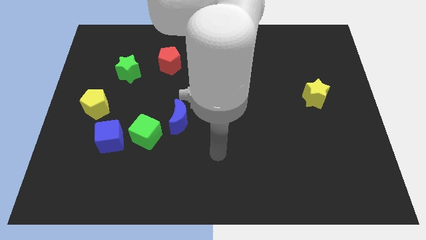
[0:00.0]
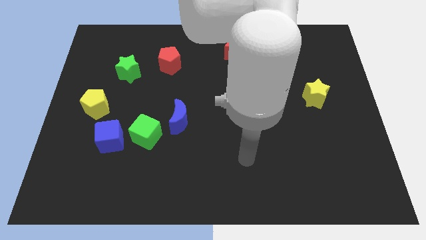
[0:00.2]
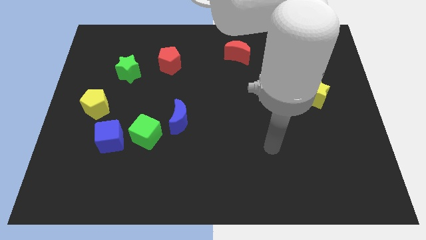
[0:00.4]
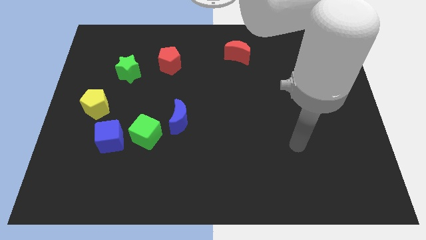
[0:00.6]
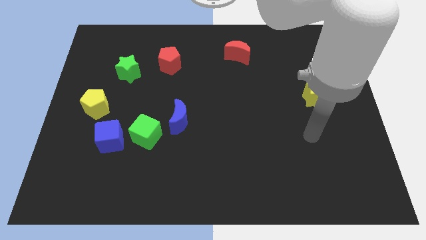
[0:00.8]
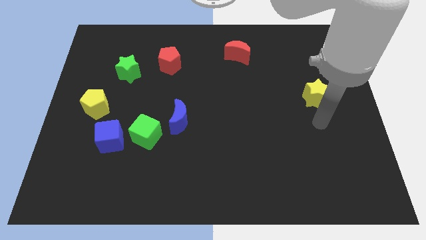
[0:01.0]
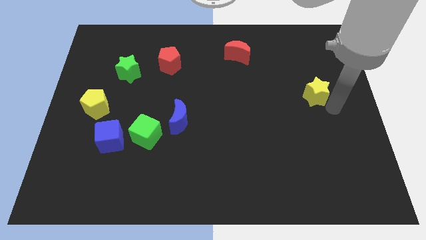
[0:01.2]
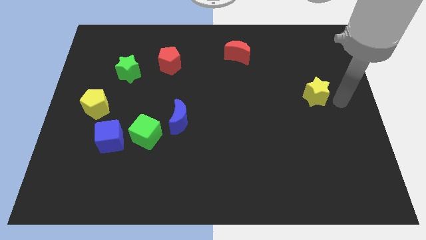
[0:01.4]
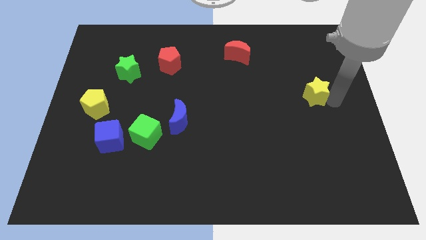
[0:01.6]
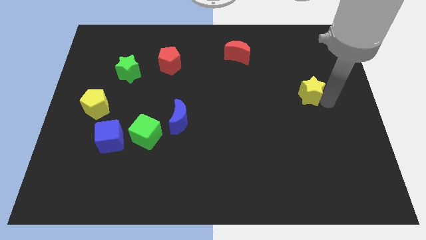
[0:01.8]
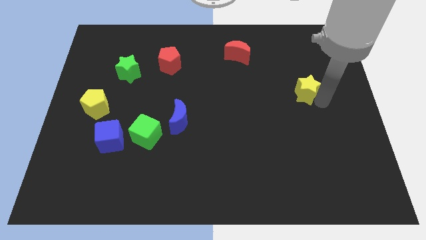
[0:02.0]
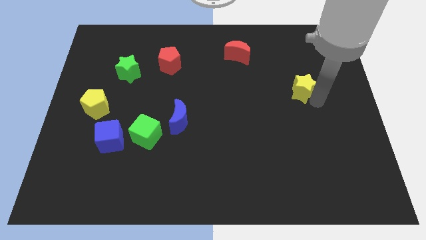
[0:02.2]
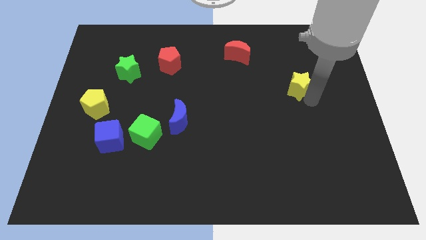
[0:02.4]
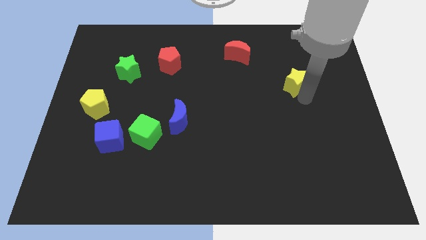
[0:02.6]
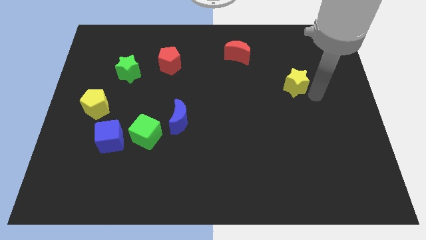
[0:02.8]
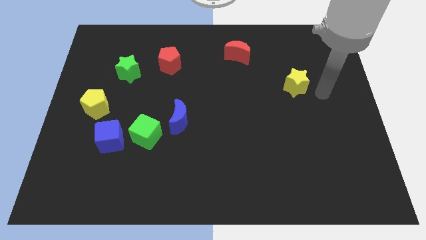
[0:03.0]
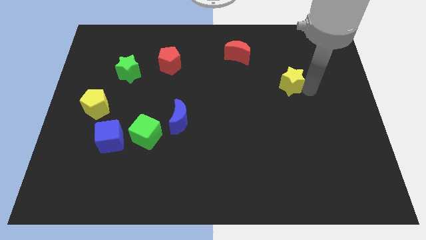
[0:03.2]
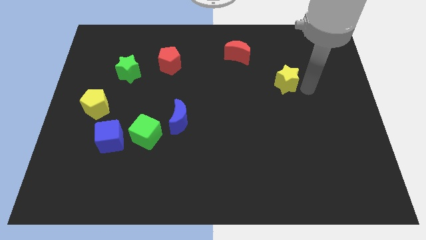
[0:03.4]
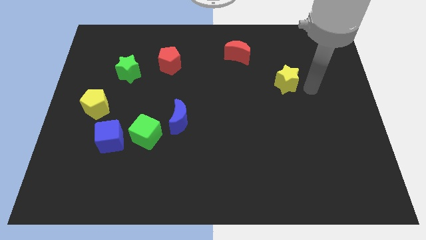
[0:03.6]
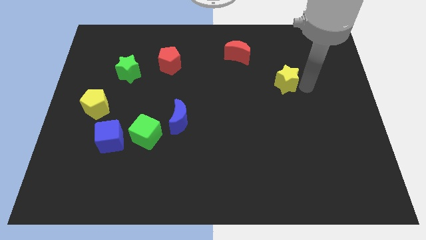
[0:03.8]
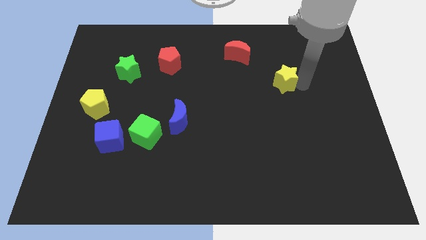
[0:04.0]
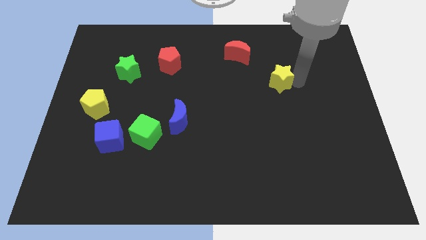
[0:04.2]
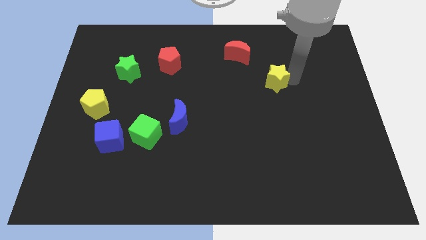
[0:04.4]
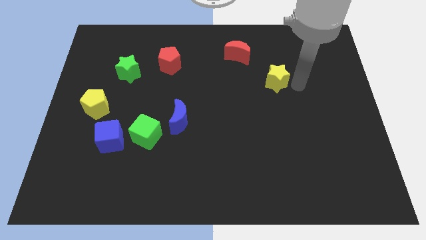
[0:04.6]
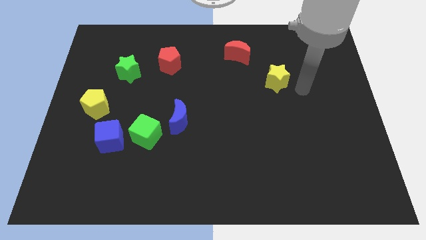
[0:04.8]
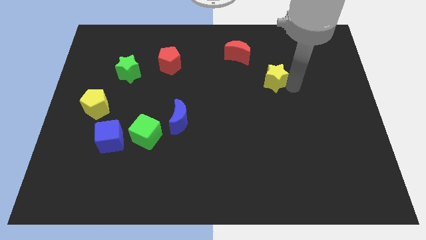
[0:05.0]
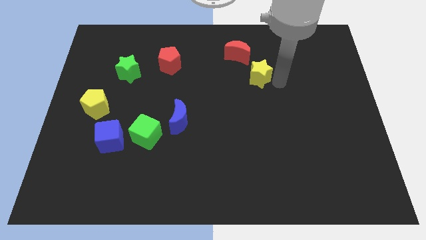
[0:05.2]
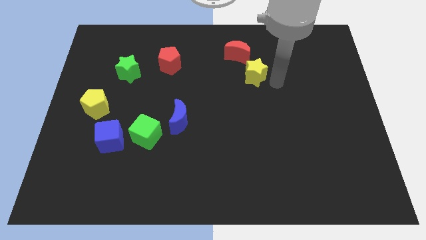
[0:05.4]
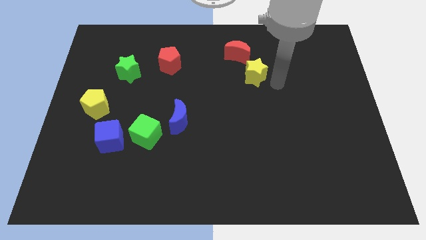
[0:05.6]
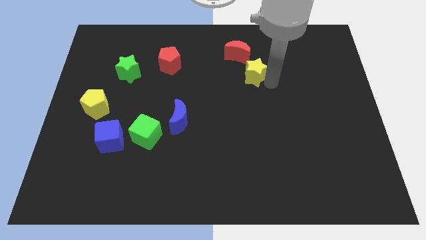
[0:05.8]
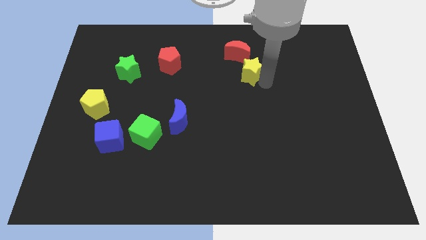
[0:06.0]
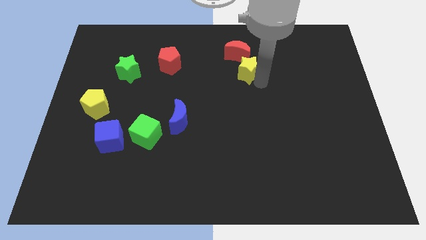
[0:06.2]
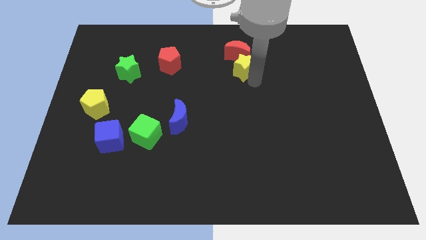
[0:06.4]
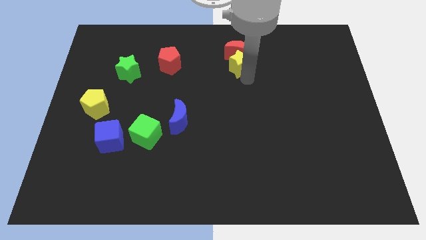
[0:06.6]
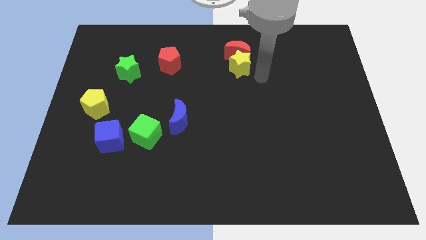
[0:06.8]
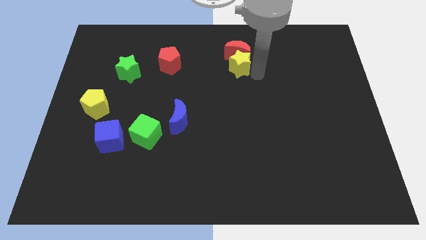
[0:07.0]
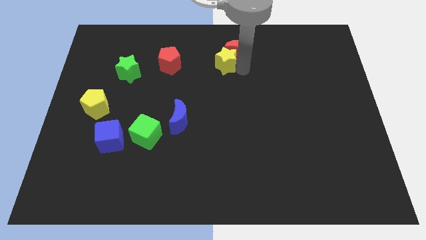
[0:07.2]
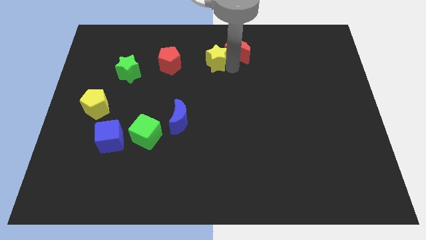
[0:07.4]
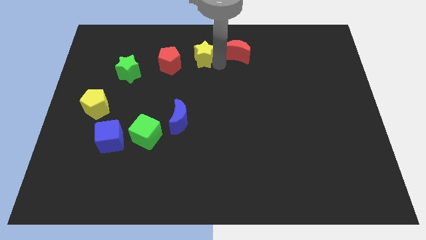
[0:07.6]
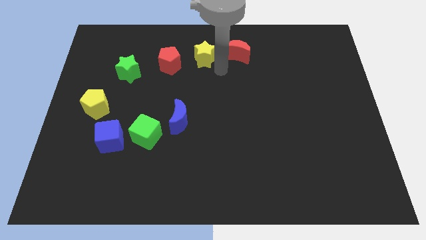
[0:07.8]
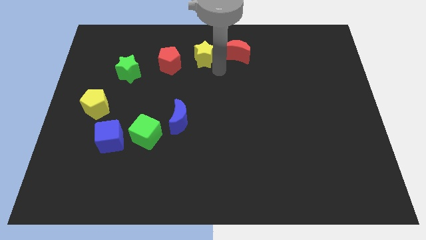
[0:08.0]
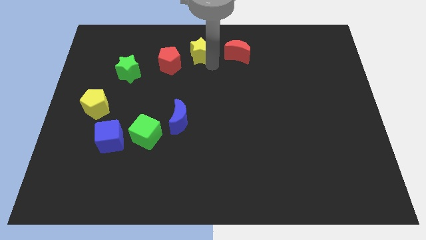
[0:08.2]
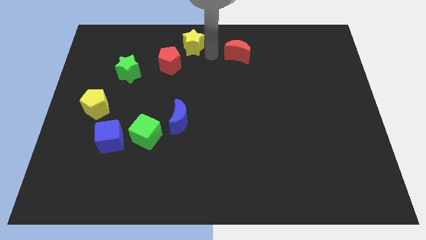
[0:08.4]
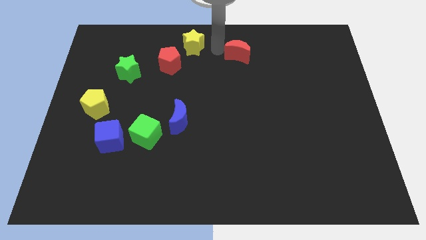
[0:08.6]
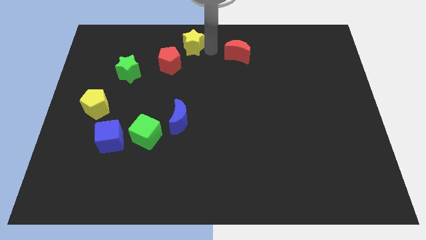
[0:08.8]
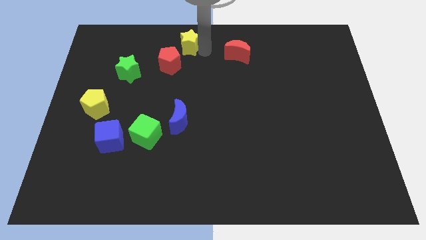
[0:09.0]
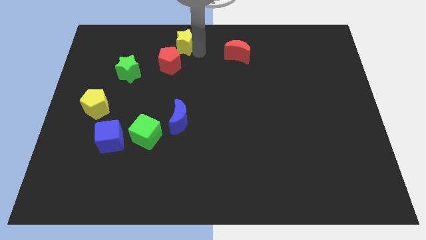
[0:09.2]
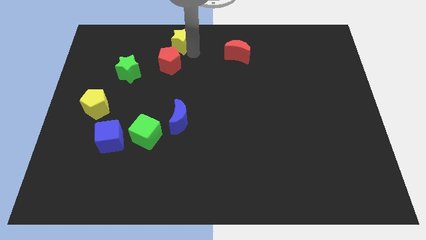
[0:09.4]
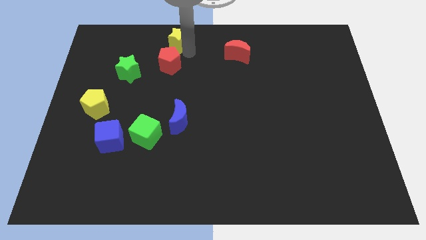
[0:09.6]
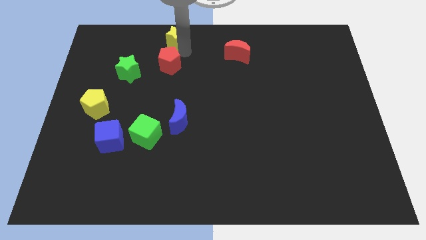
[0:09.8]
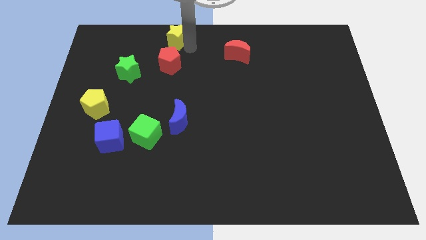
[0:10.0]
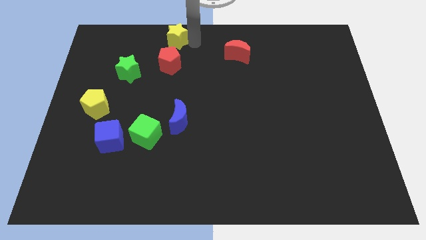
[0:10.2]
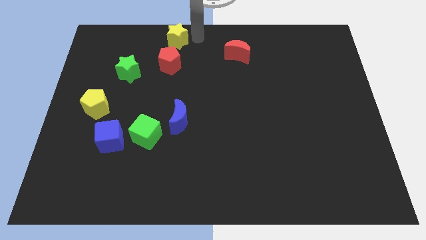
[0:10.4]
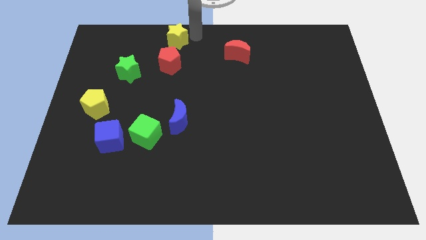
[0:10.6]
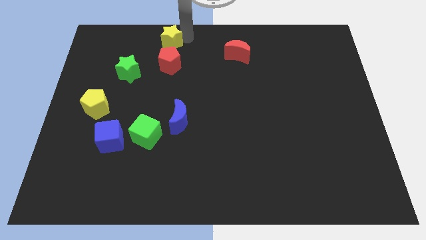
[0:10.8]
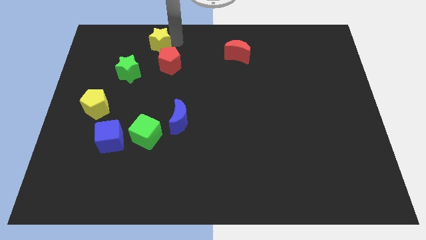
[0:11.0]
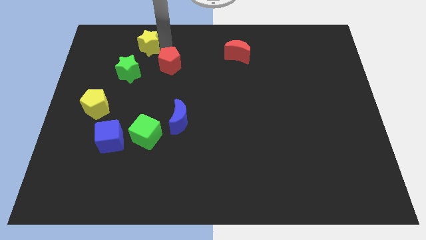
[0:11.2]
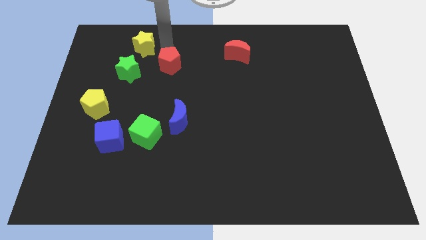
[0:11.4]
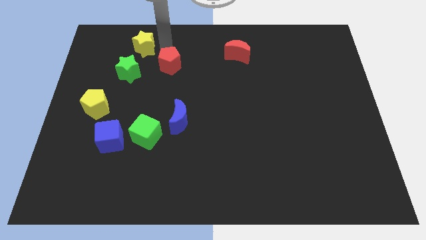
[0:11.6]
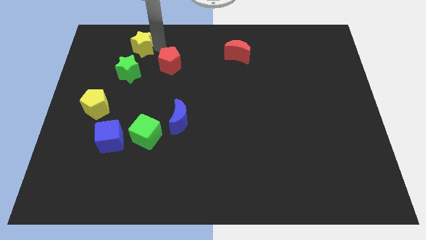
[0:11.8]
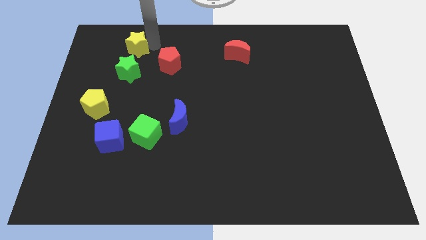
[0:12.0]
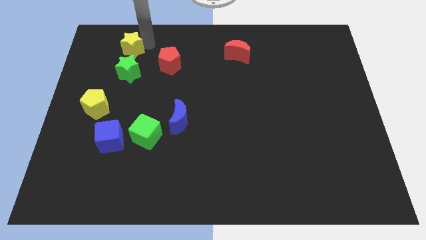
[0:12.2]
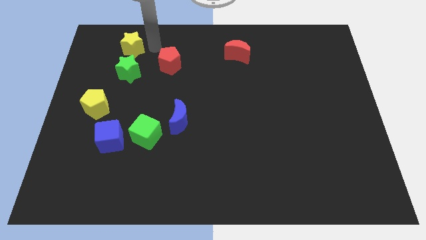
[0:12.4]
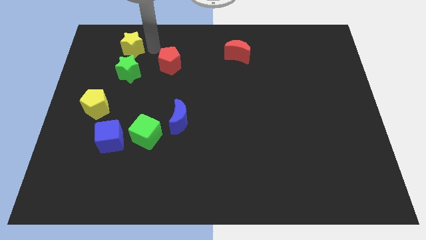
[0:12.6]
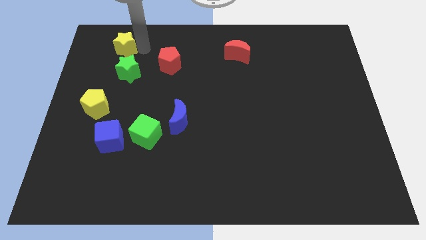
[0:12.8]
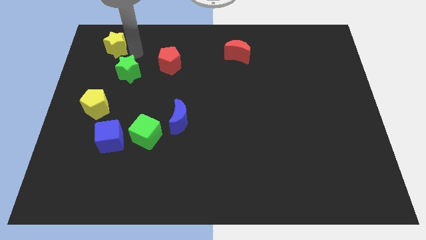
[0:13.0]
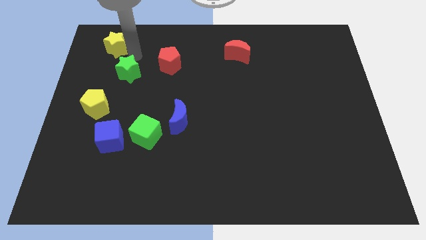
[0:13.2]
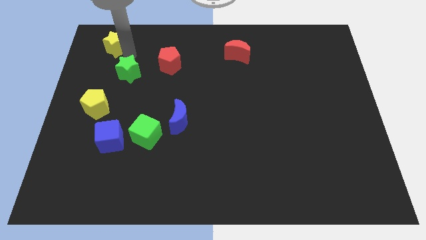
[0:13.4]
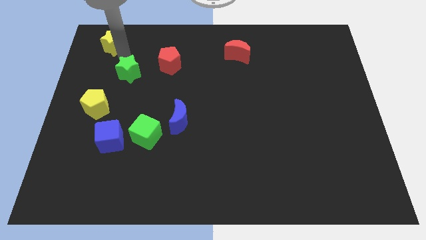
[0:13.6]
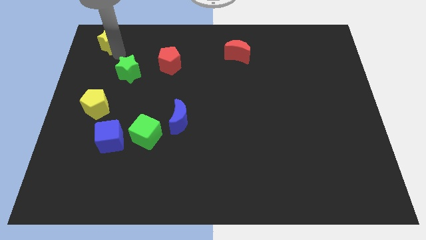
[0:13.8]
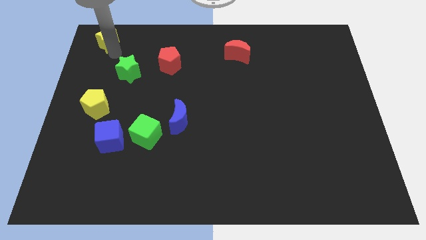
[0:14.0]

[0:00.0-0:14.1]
push the yellow star to the upper left corner

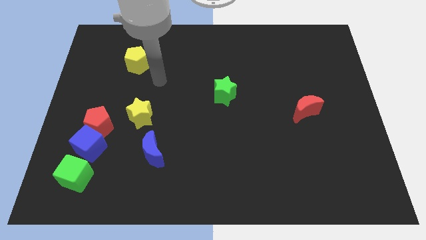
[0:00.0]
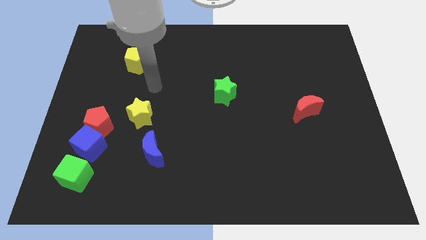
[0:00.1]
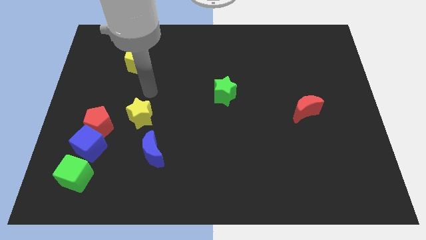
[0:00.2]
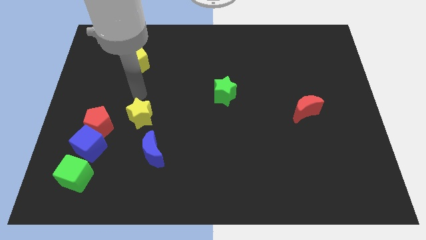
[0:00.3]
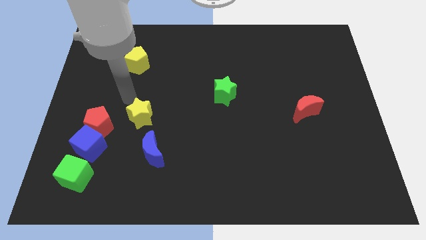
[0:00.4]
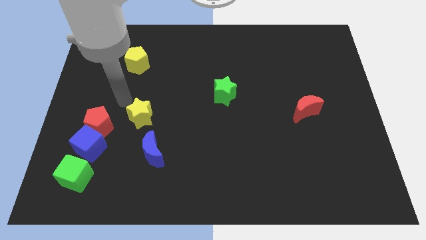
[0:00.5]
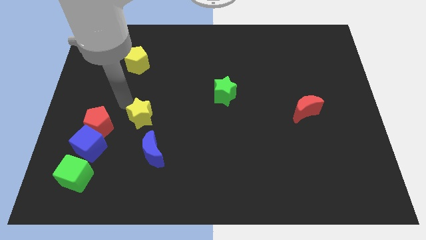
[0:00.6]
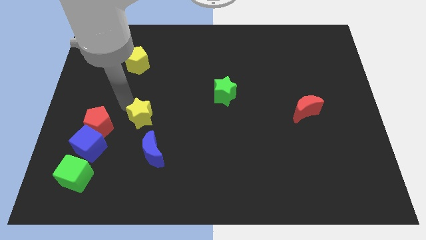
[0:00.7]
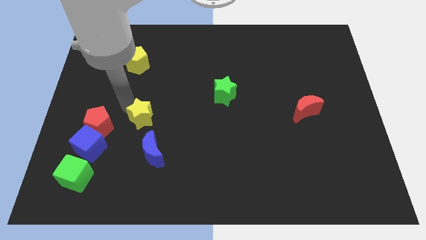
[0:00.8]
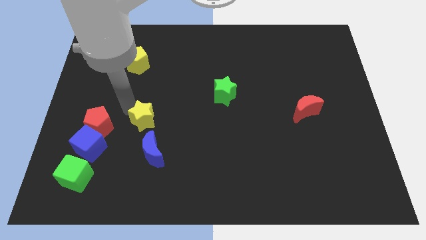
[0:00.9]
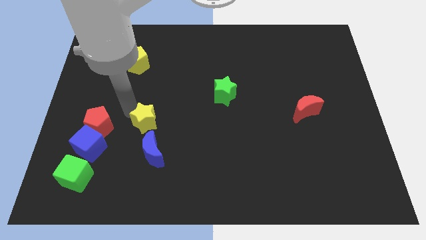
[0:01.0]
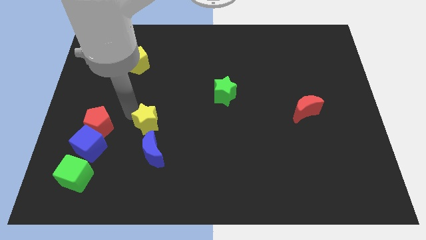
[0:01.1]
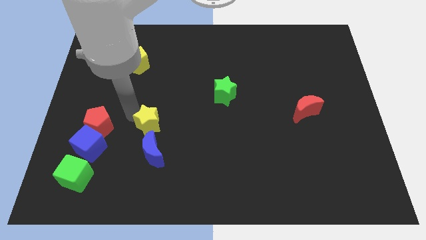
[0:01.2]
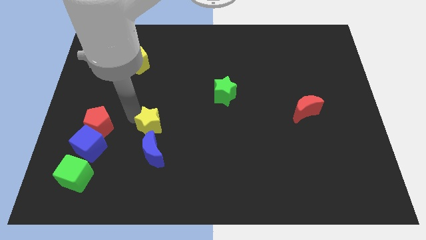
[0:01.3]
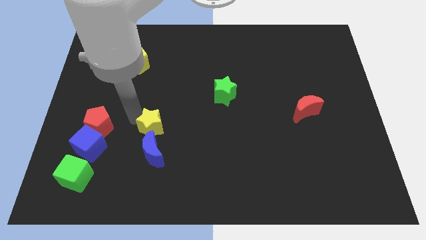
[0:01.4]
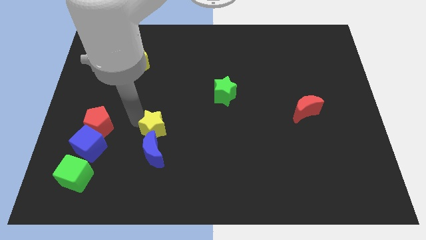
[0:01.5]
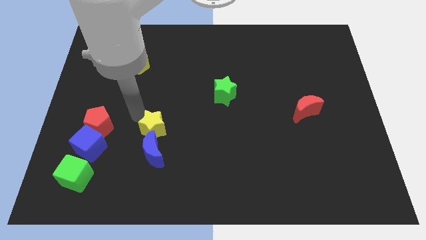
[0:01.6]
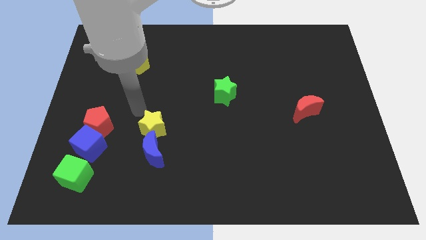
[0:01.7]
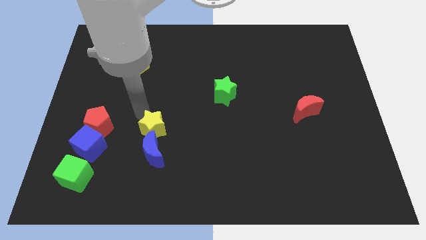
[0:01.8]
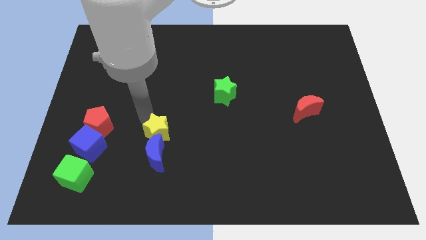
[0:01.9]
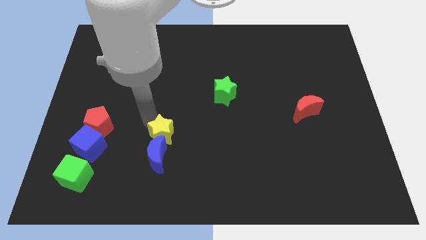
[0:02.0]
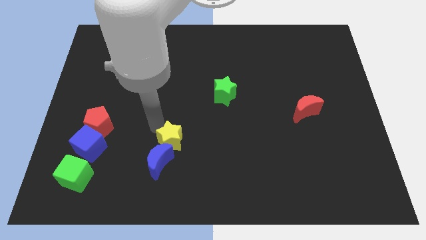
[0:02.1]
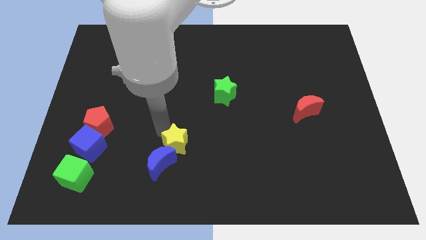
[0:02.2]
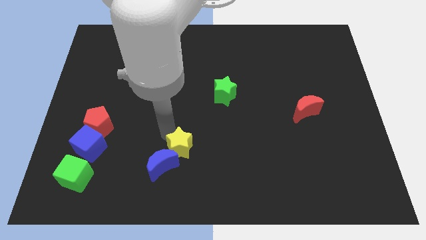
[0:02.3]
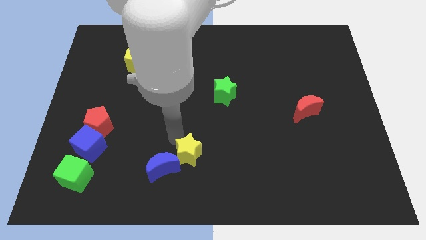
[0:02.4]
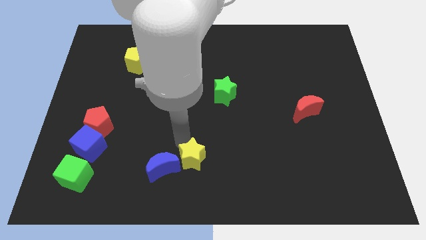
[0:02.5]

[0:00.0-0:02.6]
put the yellow star to the bottom
